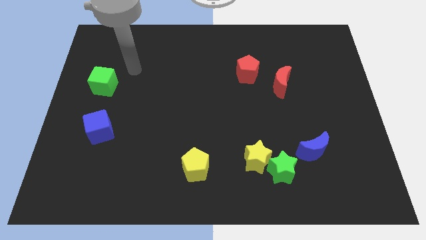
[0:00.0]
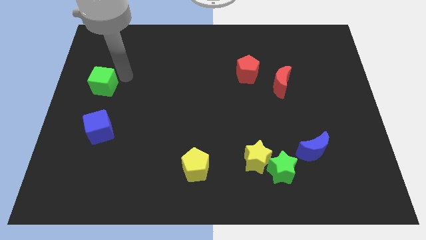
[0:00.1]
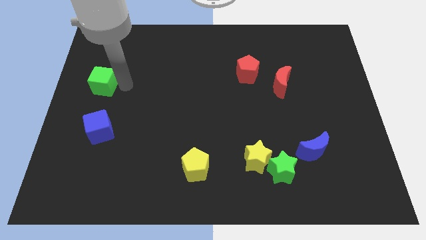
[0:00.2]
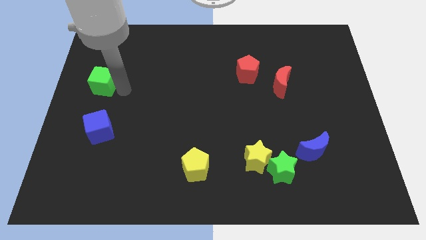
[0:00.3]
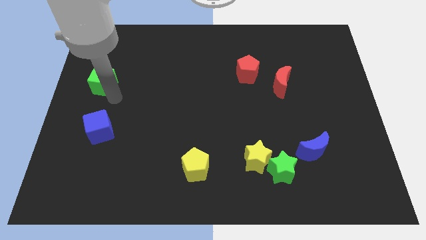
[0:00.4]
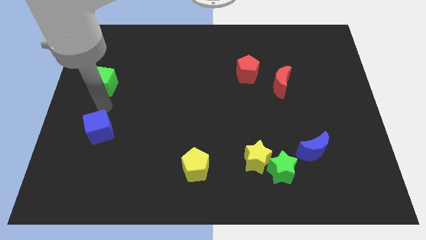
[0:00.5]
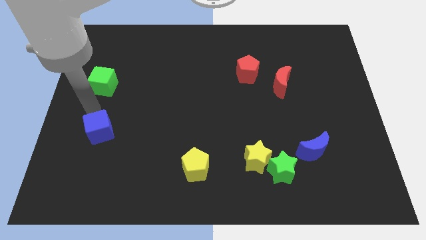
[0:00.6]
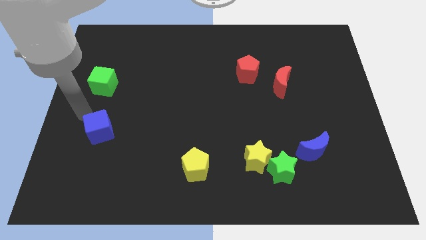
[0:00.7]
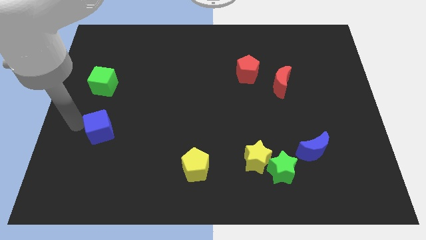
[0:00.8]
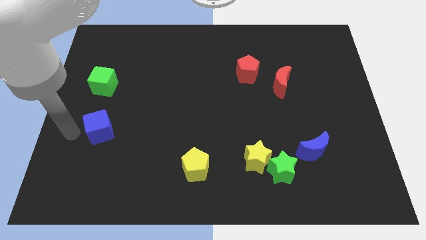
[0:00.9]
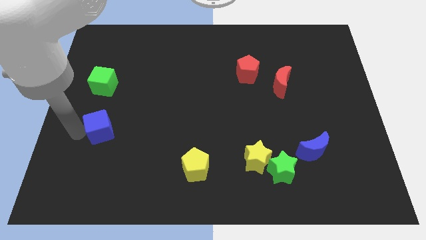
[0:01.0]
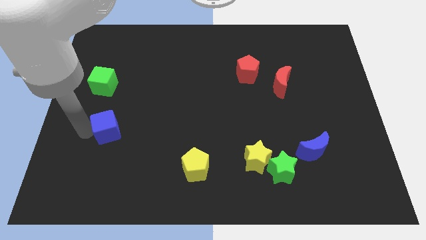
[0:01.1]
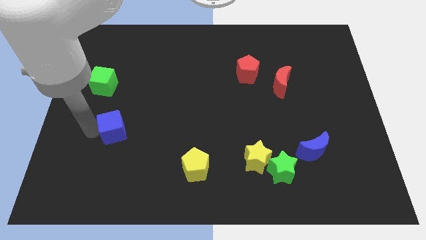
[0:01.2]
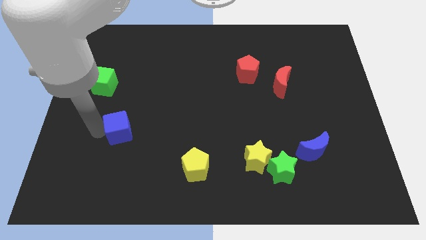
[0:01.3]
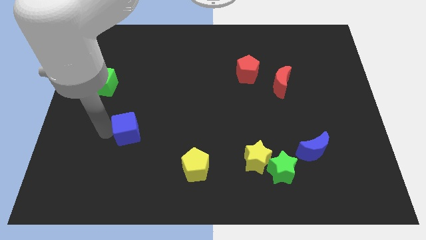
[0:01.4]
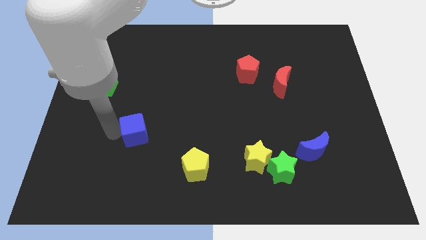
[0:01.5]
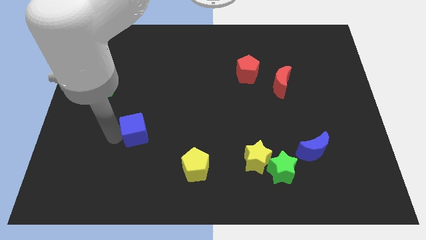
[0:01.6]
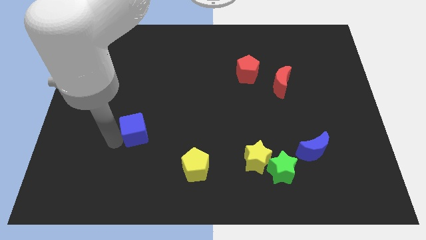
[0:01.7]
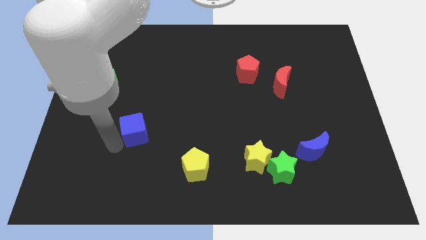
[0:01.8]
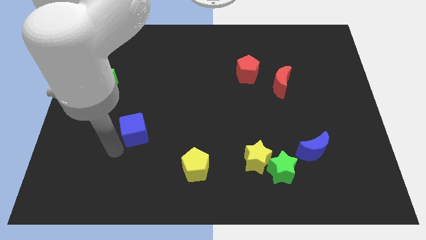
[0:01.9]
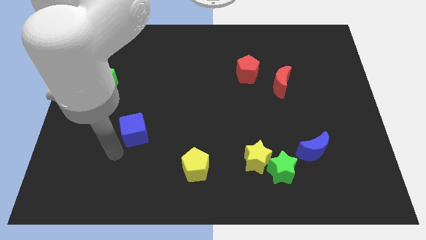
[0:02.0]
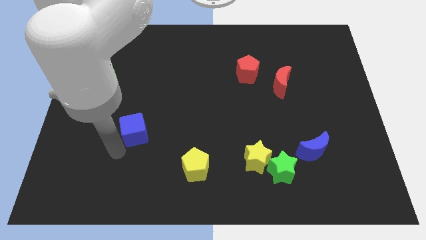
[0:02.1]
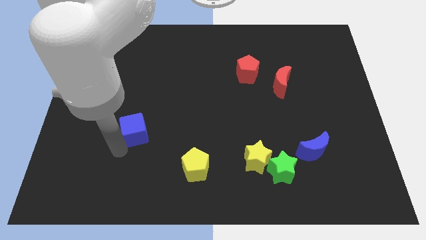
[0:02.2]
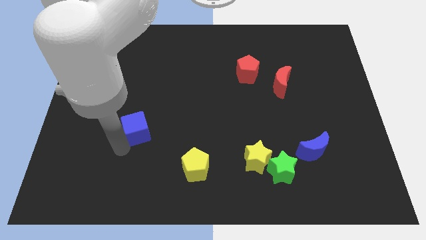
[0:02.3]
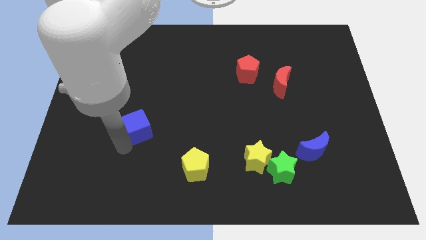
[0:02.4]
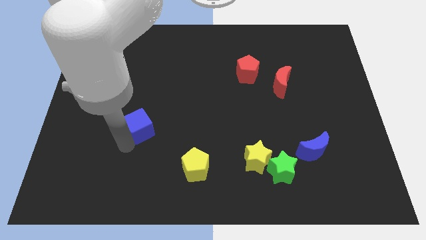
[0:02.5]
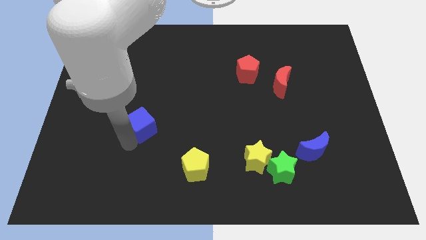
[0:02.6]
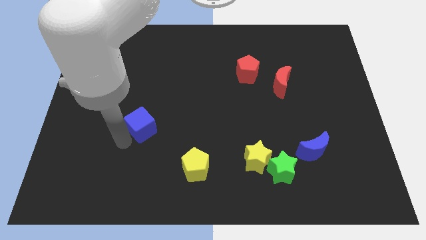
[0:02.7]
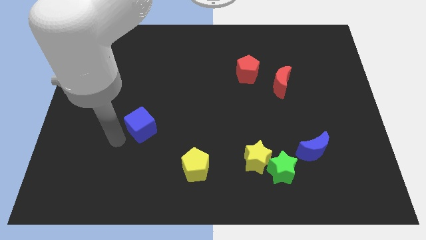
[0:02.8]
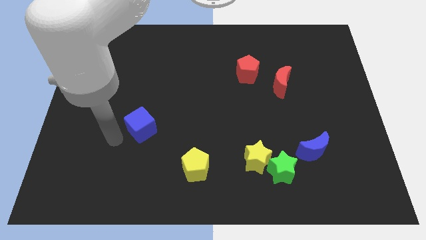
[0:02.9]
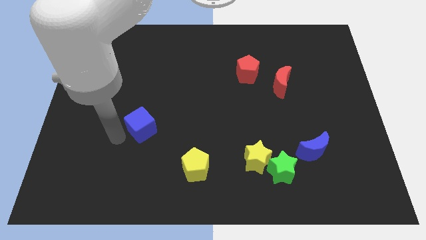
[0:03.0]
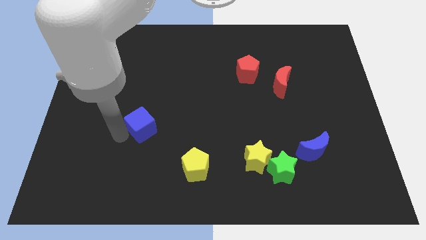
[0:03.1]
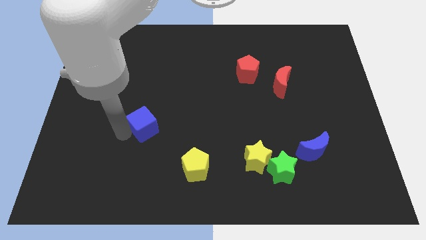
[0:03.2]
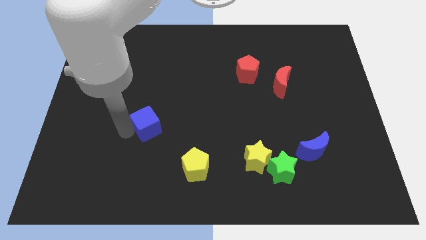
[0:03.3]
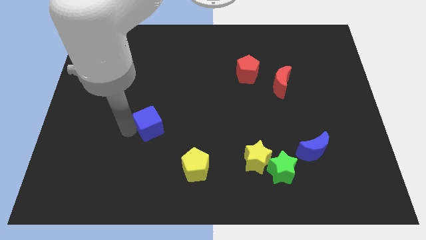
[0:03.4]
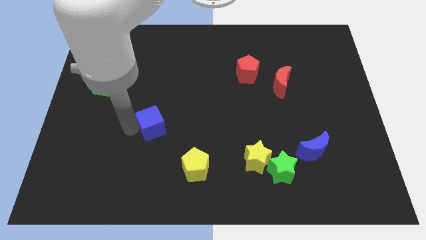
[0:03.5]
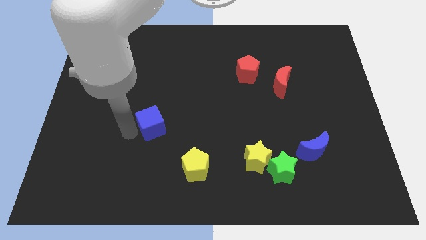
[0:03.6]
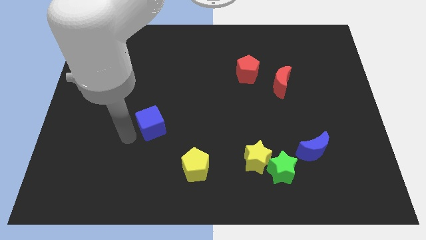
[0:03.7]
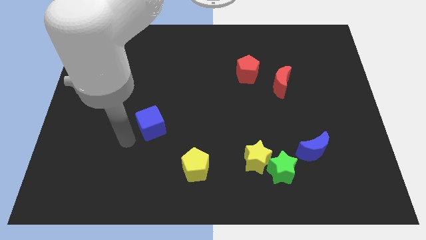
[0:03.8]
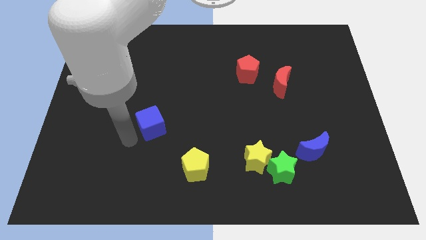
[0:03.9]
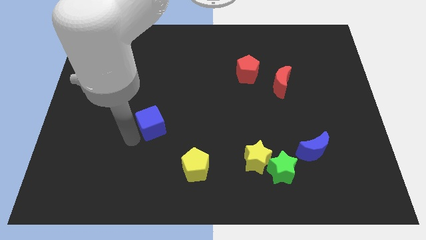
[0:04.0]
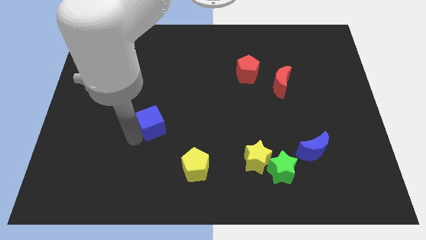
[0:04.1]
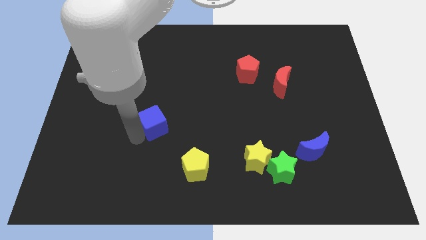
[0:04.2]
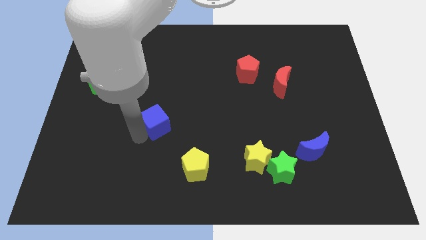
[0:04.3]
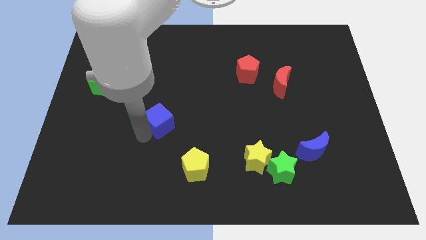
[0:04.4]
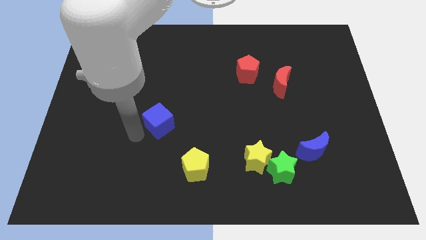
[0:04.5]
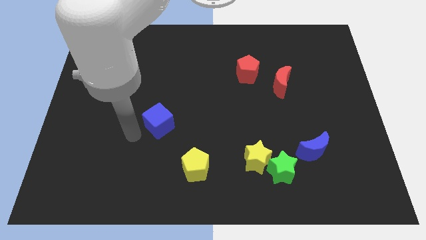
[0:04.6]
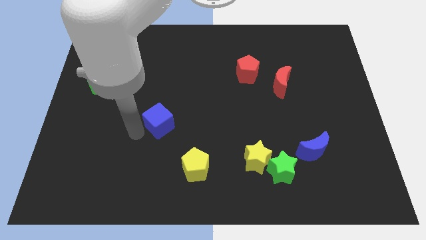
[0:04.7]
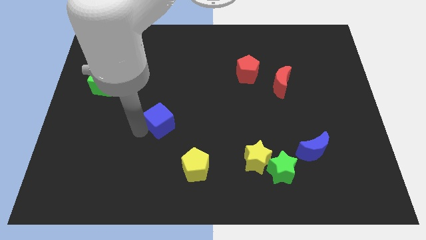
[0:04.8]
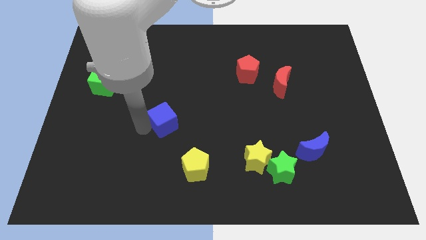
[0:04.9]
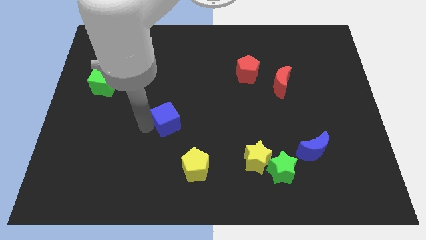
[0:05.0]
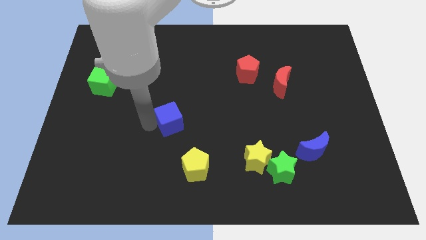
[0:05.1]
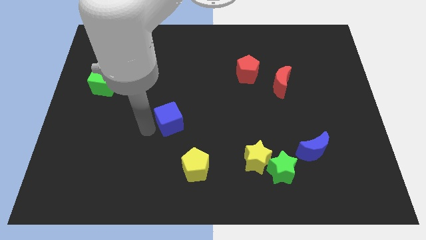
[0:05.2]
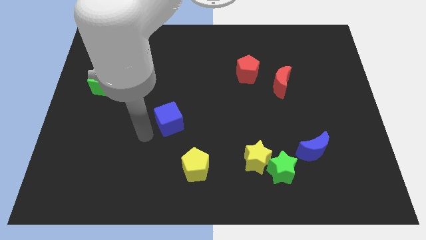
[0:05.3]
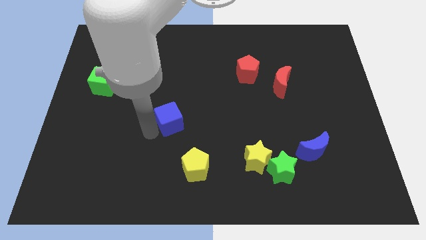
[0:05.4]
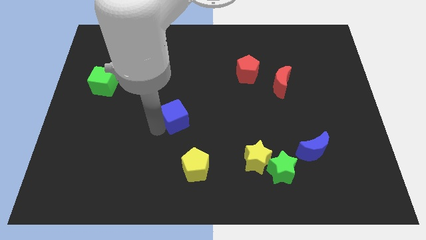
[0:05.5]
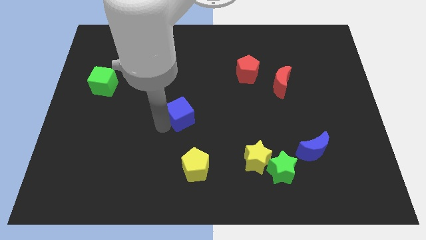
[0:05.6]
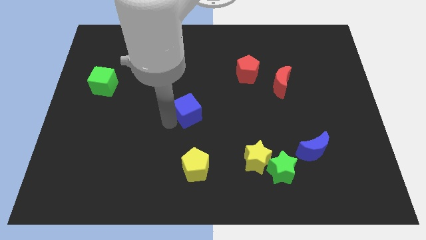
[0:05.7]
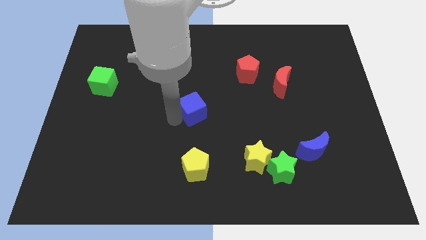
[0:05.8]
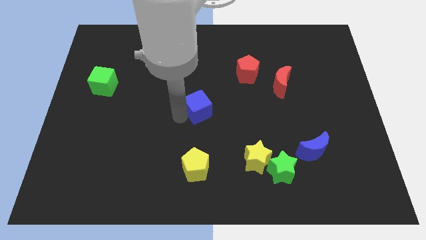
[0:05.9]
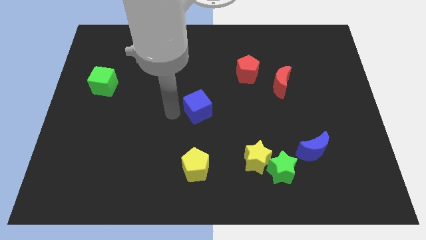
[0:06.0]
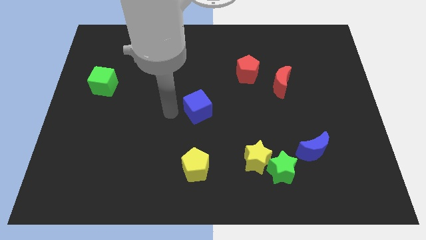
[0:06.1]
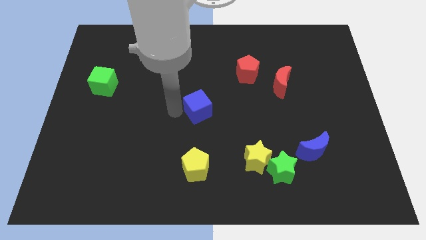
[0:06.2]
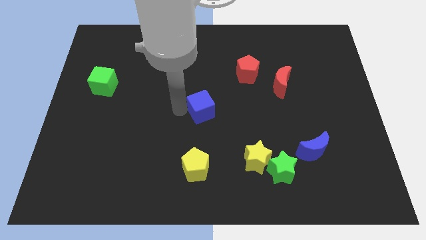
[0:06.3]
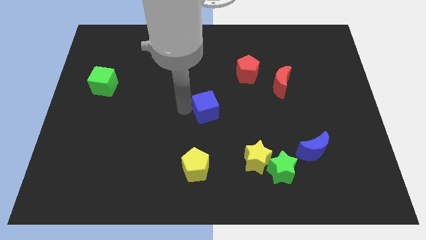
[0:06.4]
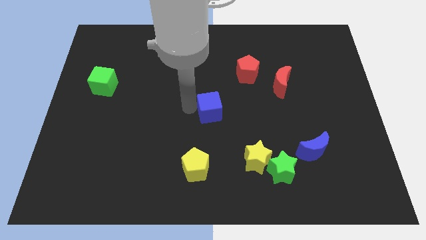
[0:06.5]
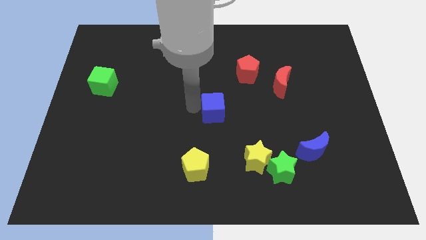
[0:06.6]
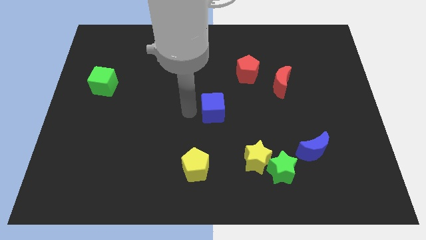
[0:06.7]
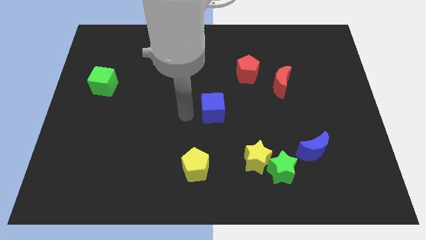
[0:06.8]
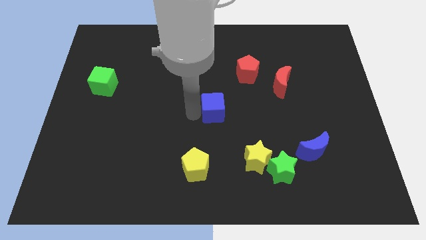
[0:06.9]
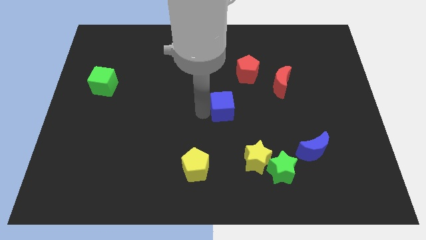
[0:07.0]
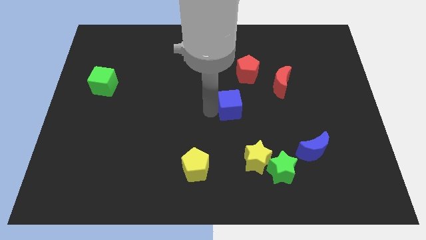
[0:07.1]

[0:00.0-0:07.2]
slide the blue cube below the red pentagon

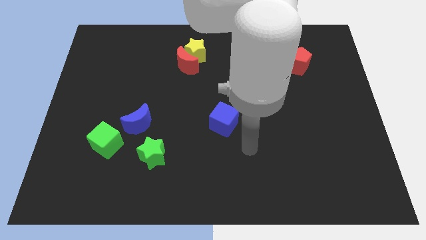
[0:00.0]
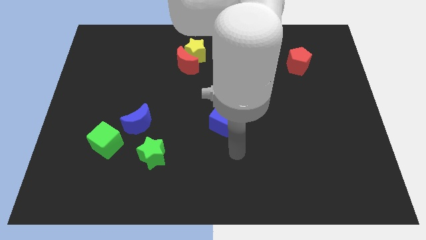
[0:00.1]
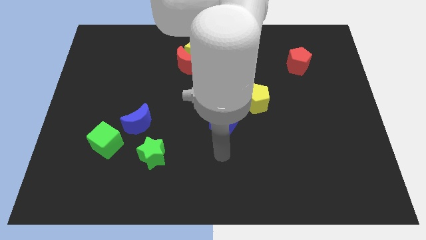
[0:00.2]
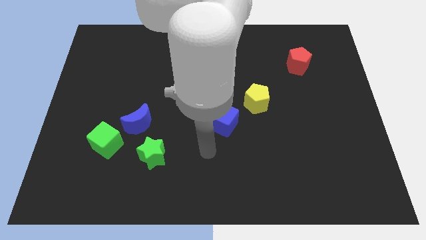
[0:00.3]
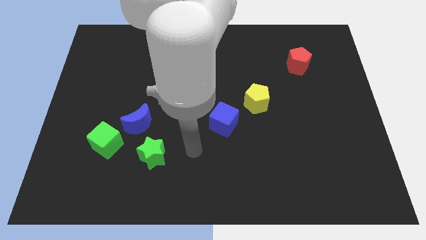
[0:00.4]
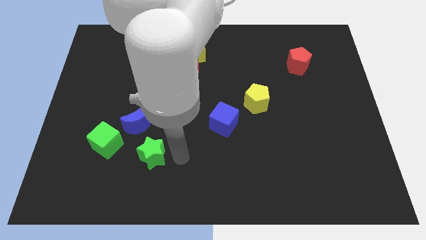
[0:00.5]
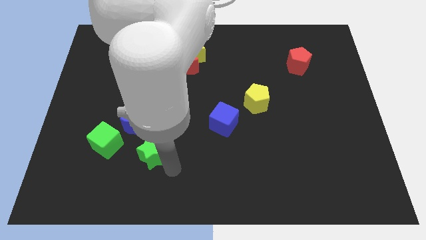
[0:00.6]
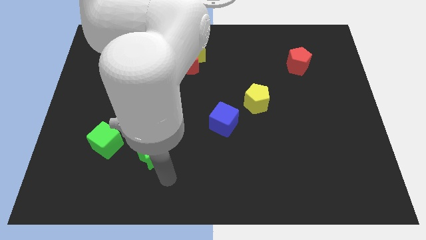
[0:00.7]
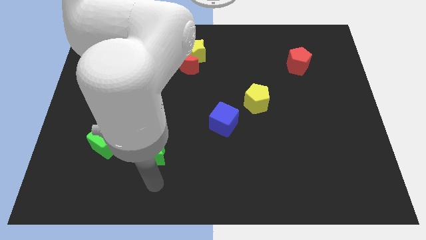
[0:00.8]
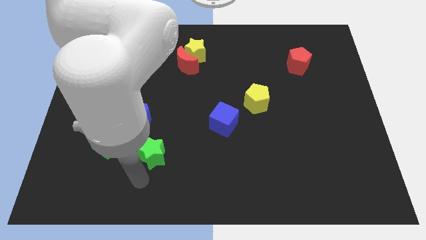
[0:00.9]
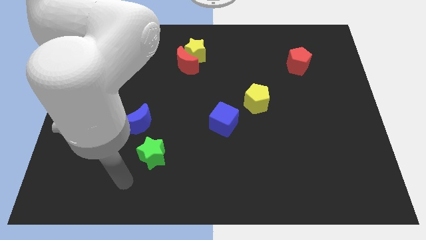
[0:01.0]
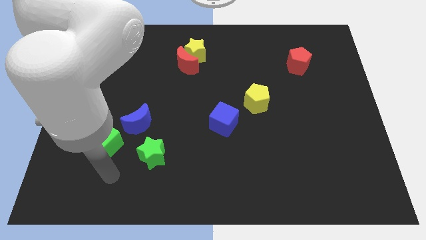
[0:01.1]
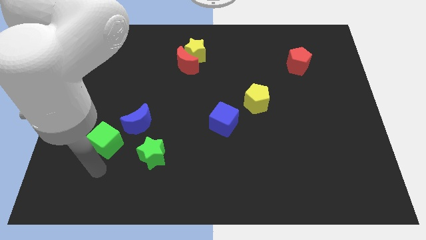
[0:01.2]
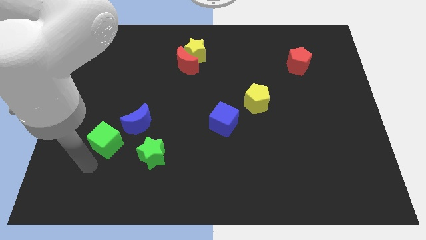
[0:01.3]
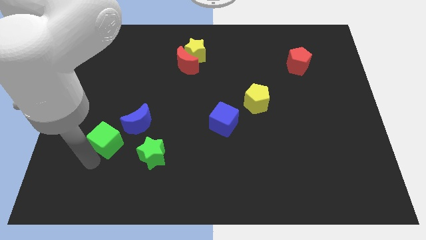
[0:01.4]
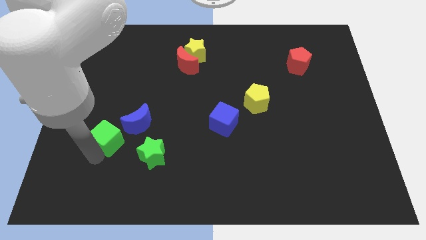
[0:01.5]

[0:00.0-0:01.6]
slide the green cube to the top left of the green star
